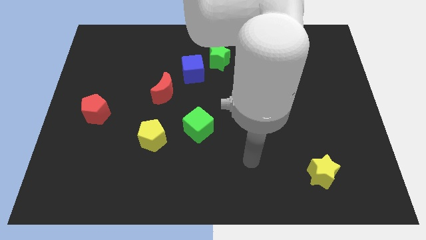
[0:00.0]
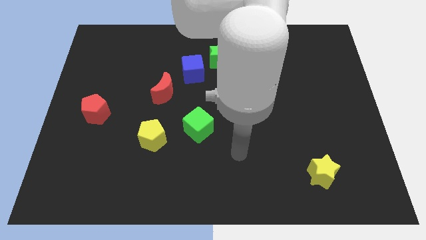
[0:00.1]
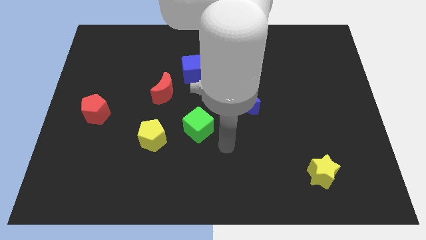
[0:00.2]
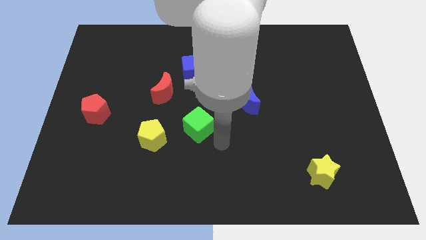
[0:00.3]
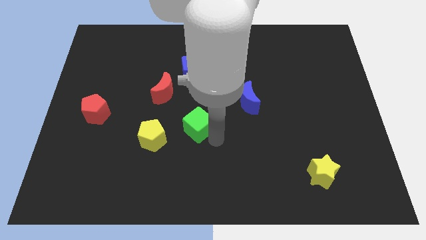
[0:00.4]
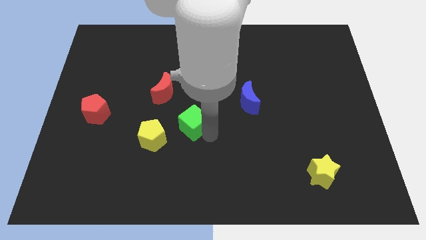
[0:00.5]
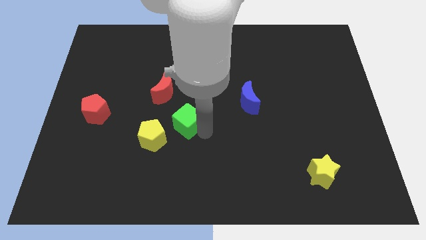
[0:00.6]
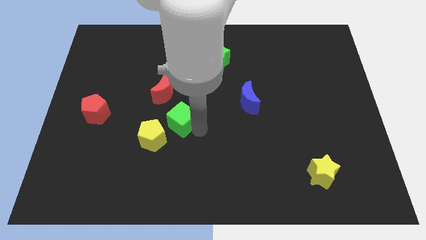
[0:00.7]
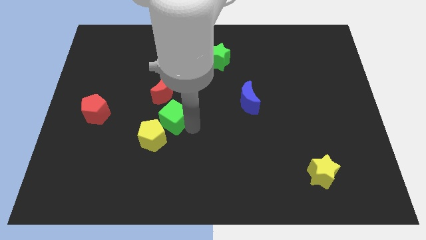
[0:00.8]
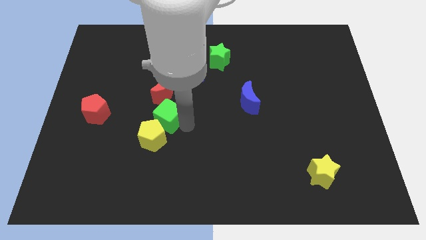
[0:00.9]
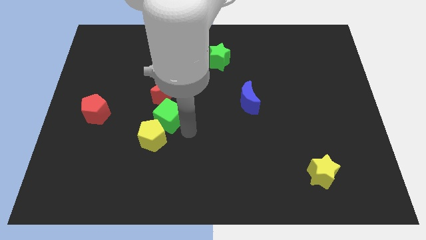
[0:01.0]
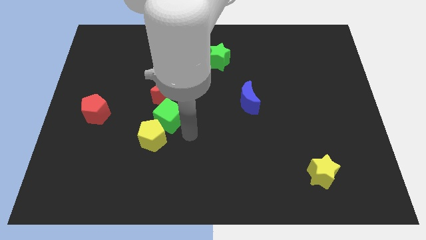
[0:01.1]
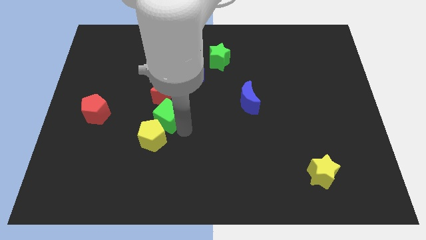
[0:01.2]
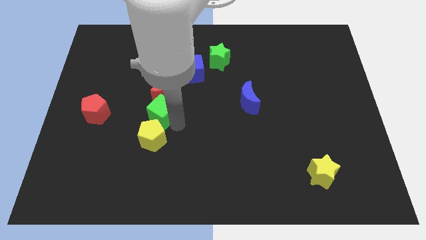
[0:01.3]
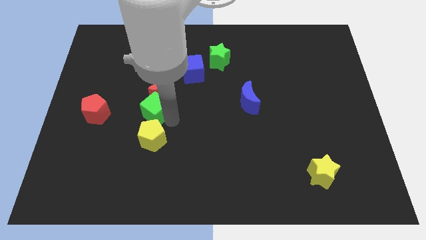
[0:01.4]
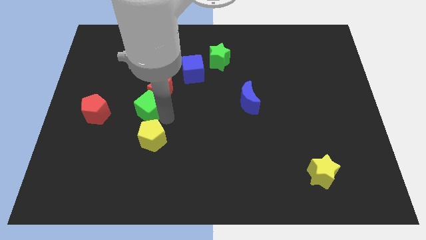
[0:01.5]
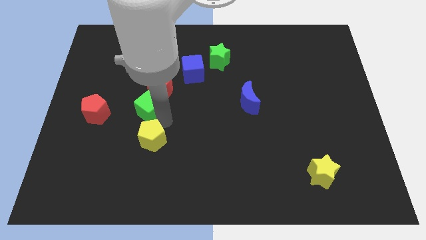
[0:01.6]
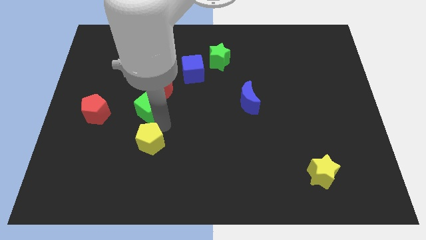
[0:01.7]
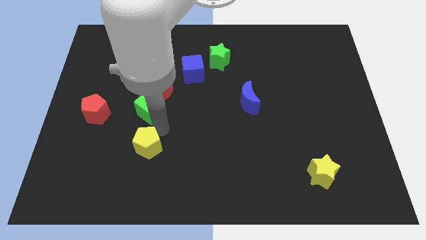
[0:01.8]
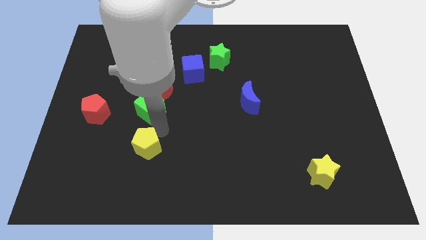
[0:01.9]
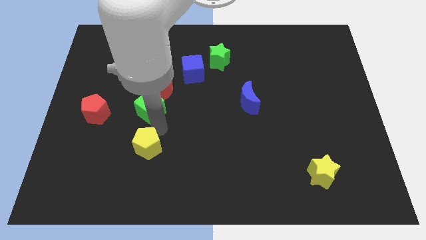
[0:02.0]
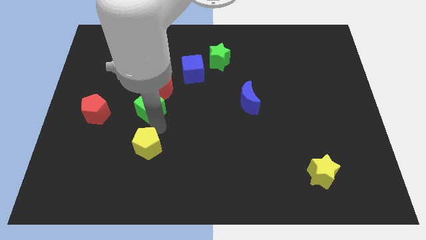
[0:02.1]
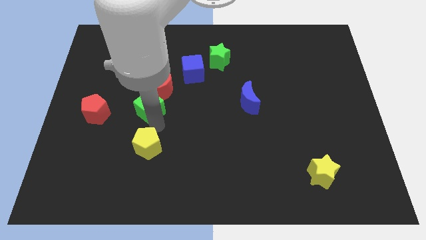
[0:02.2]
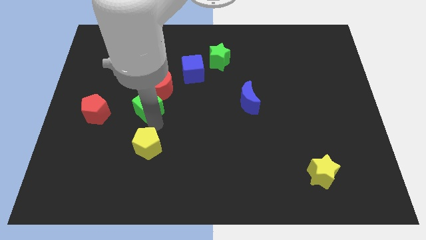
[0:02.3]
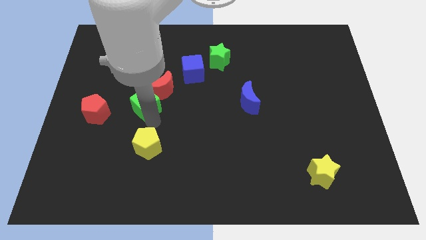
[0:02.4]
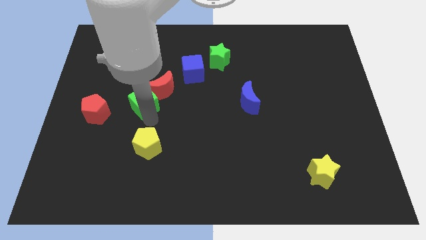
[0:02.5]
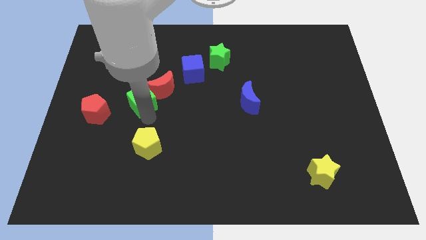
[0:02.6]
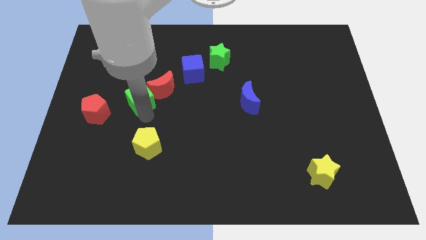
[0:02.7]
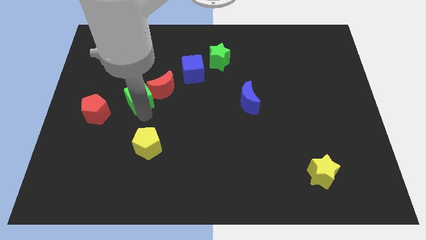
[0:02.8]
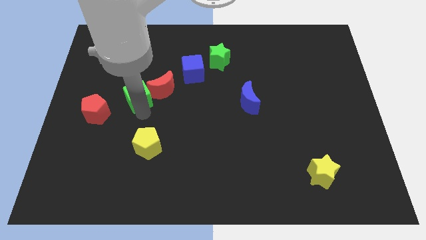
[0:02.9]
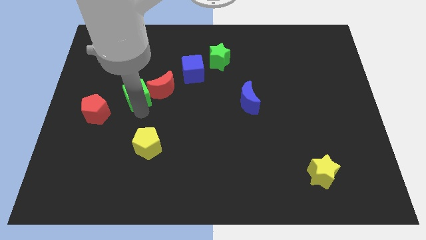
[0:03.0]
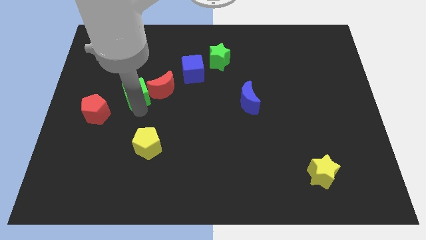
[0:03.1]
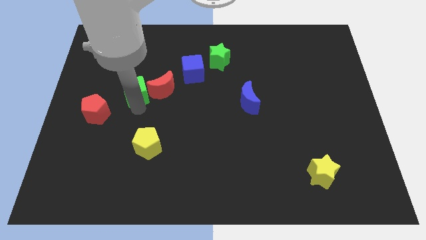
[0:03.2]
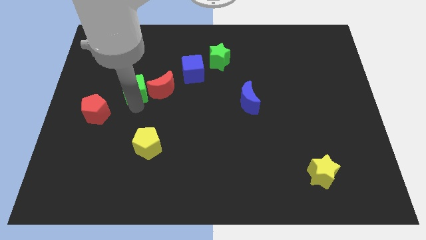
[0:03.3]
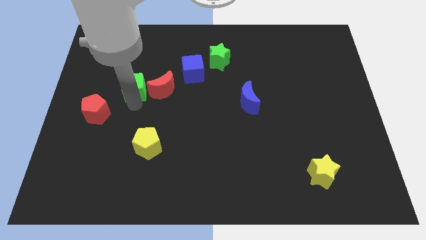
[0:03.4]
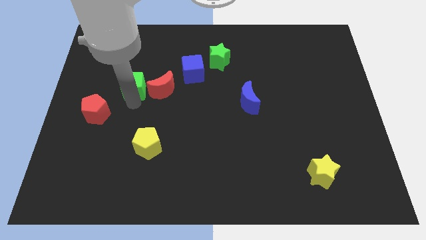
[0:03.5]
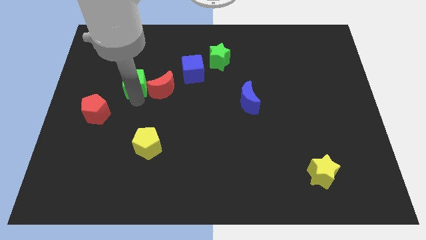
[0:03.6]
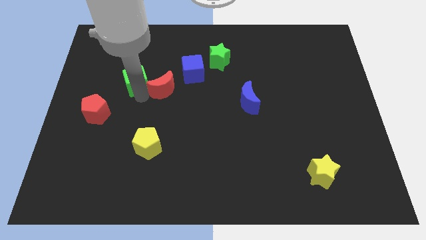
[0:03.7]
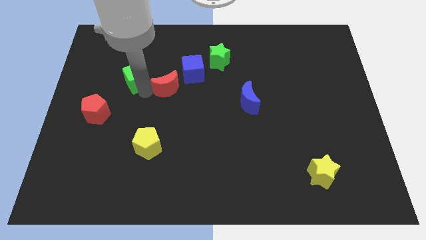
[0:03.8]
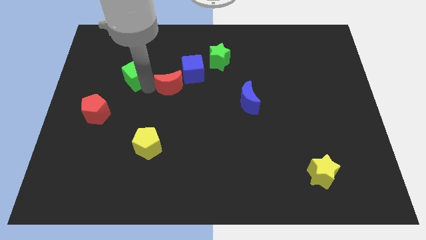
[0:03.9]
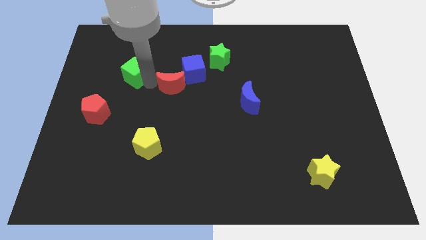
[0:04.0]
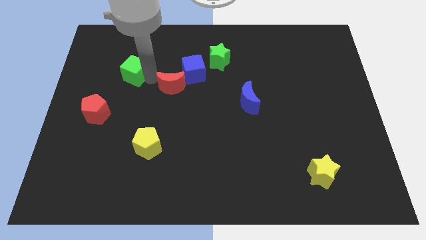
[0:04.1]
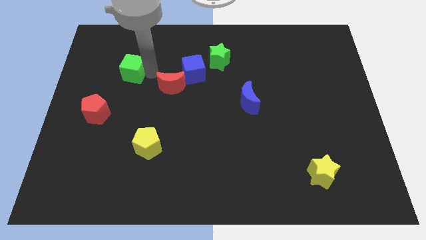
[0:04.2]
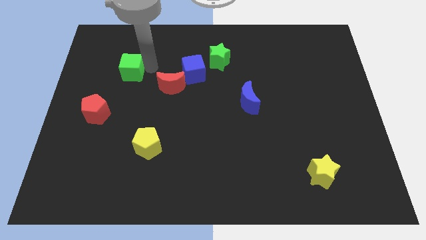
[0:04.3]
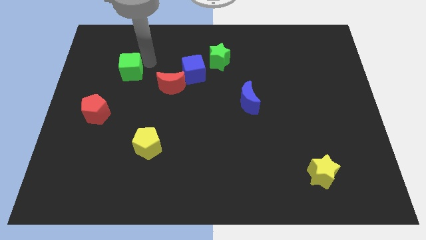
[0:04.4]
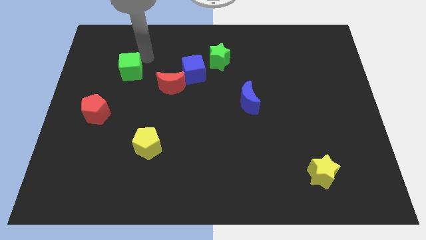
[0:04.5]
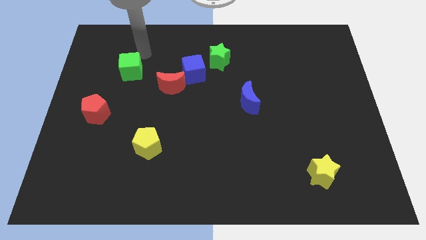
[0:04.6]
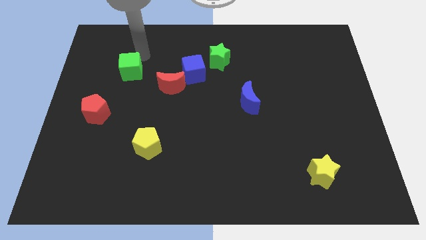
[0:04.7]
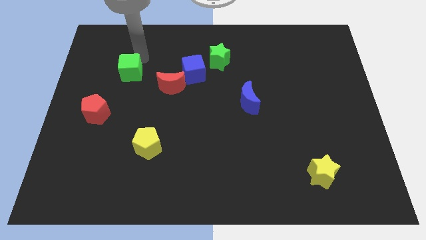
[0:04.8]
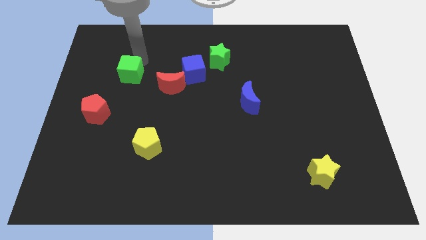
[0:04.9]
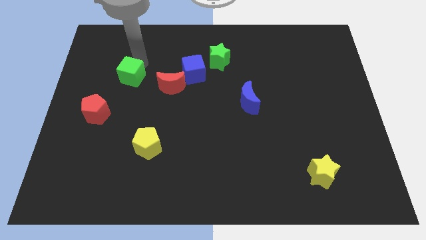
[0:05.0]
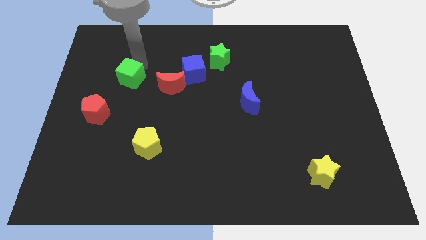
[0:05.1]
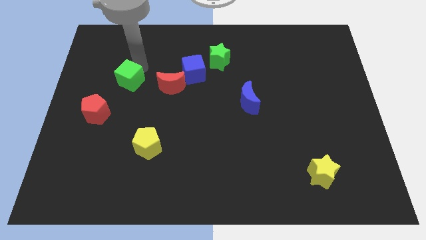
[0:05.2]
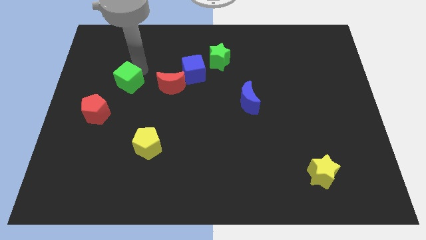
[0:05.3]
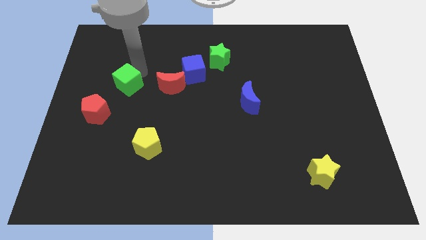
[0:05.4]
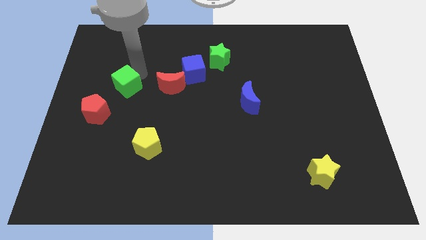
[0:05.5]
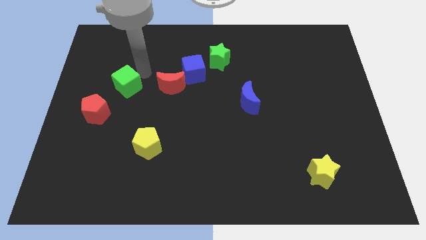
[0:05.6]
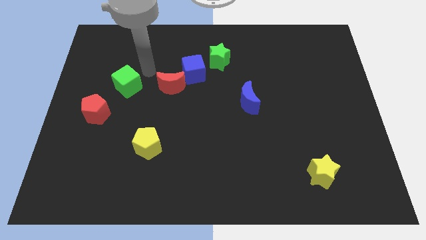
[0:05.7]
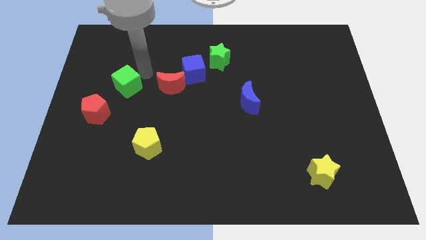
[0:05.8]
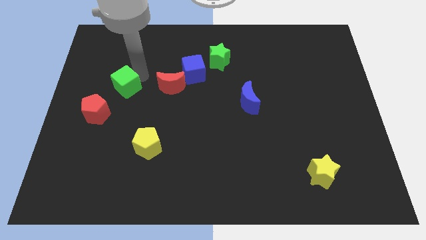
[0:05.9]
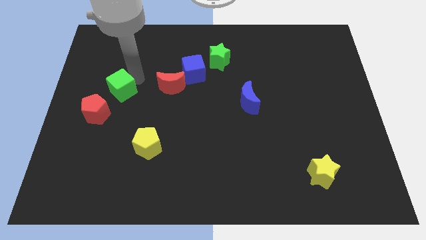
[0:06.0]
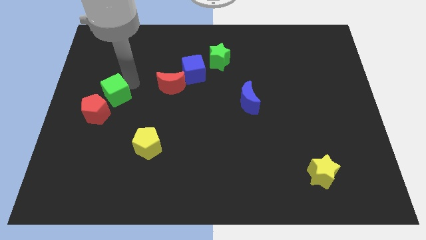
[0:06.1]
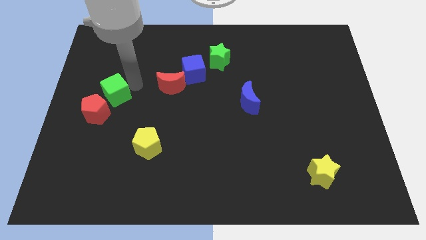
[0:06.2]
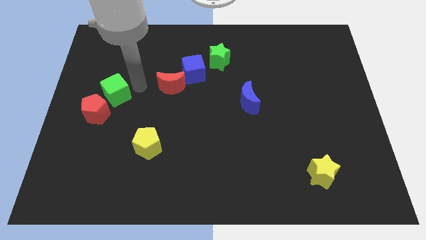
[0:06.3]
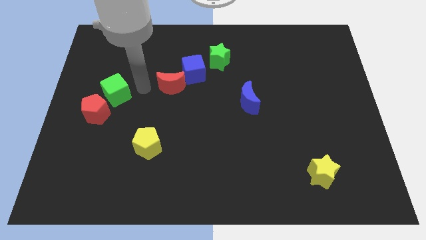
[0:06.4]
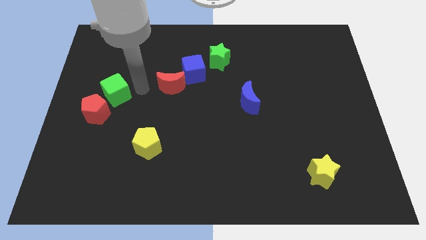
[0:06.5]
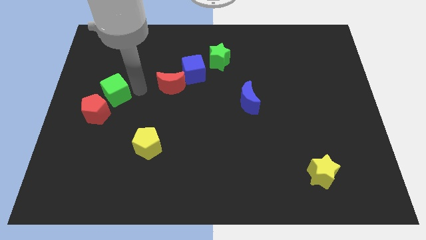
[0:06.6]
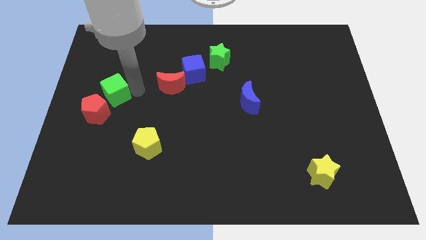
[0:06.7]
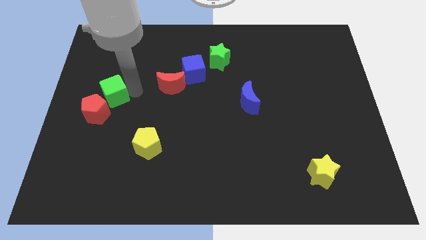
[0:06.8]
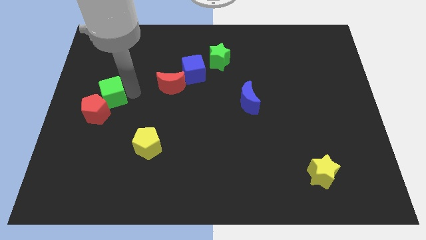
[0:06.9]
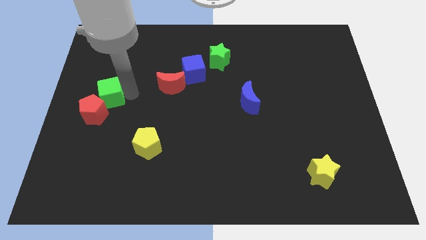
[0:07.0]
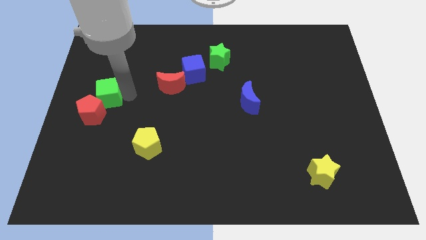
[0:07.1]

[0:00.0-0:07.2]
move the green cube to the center left
